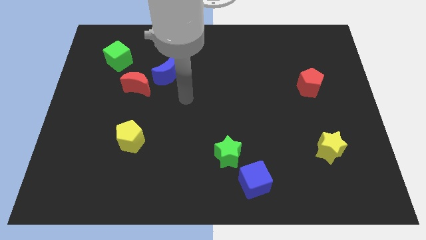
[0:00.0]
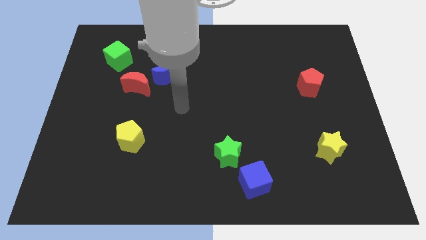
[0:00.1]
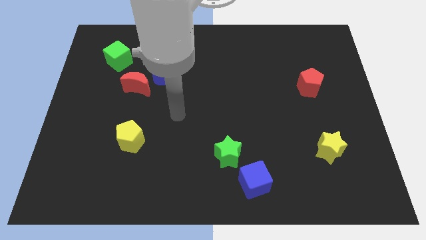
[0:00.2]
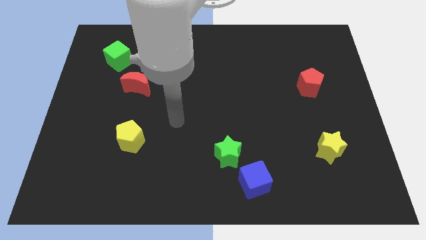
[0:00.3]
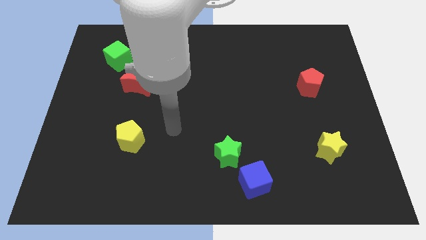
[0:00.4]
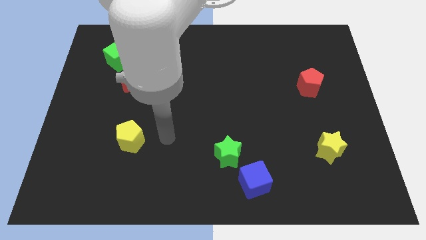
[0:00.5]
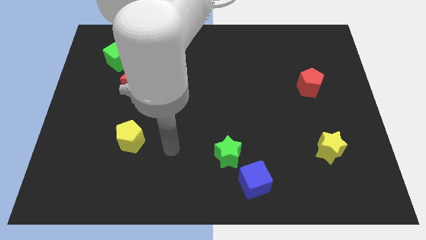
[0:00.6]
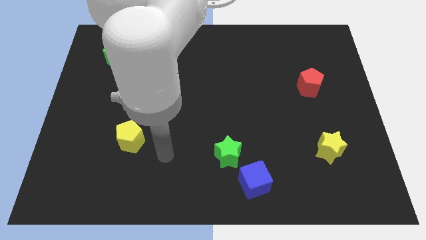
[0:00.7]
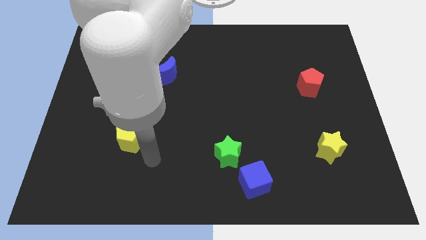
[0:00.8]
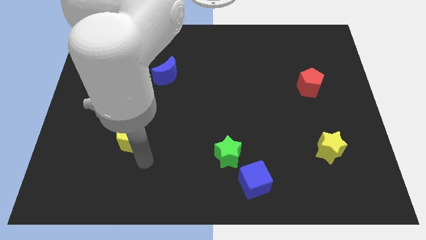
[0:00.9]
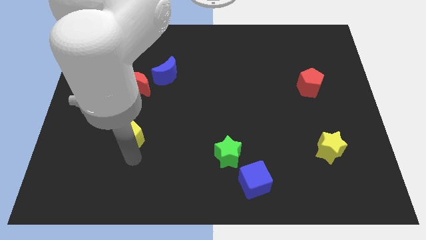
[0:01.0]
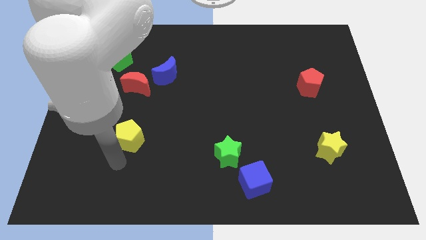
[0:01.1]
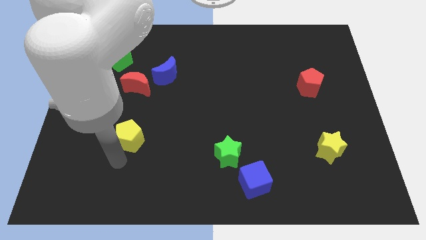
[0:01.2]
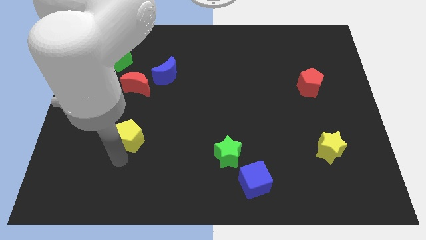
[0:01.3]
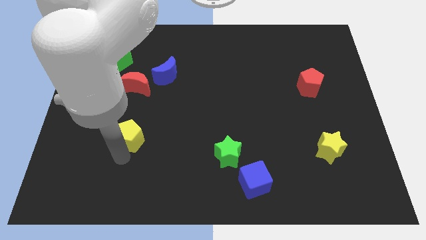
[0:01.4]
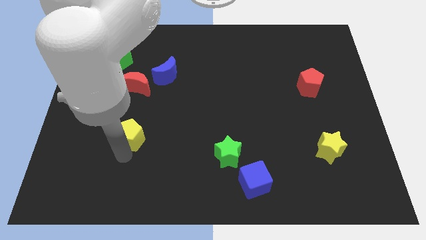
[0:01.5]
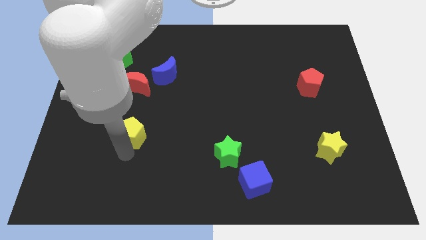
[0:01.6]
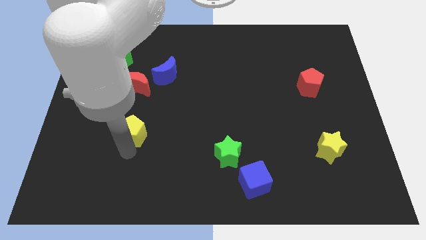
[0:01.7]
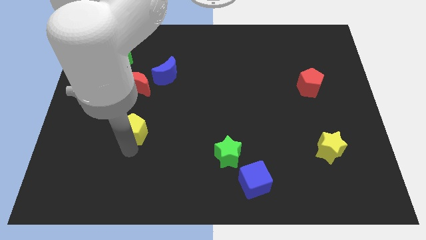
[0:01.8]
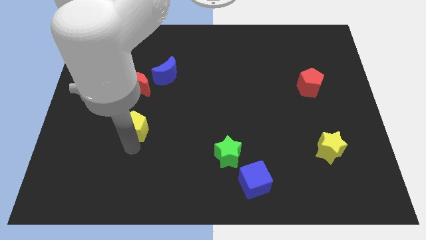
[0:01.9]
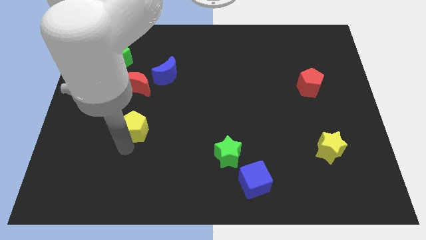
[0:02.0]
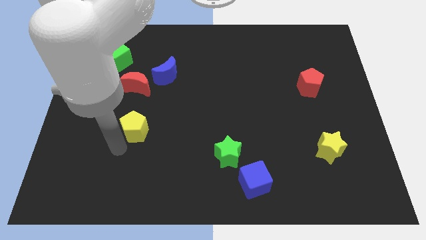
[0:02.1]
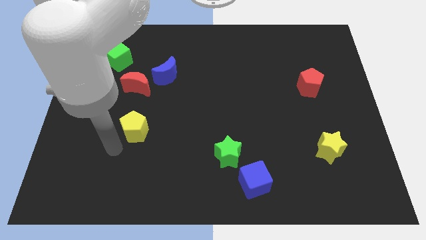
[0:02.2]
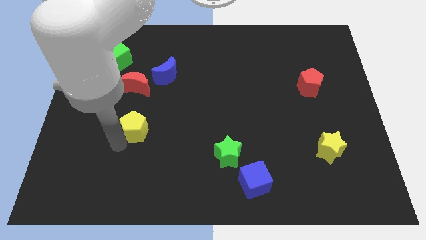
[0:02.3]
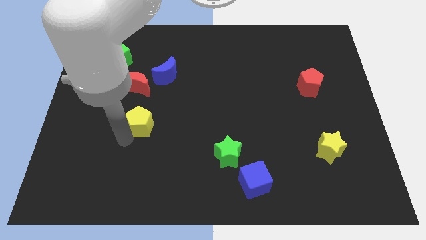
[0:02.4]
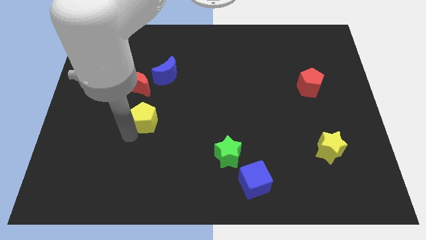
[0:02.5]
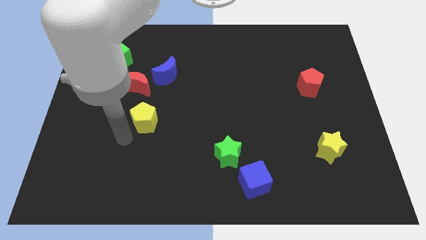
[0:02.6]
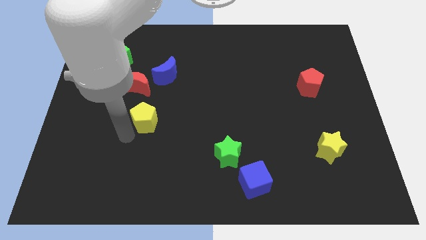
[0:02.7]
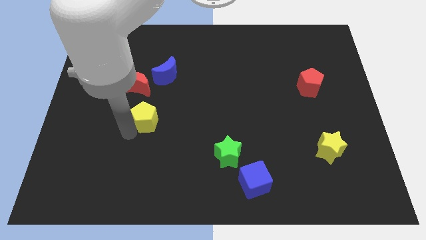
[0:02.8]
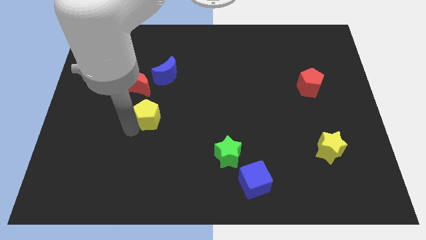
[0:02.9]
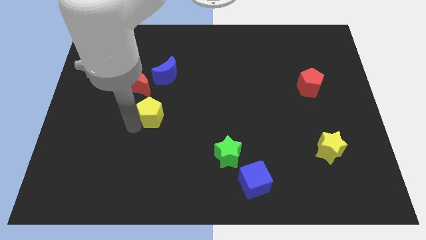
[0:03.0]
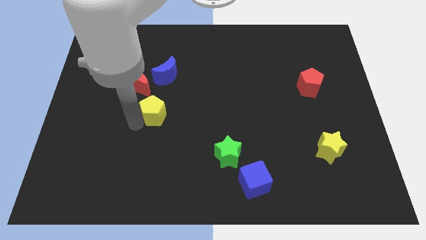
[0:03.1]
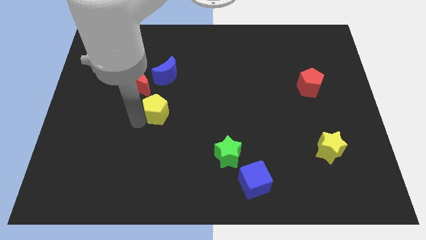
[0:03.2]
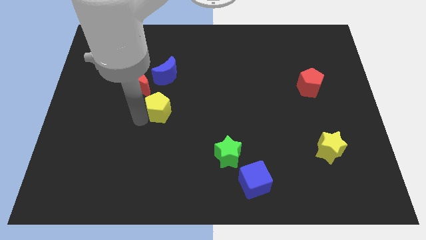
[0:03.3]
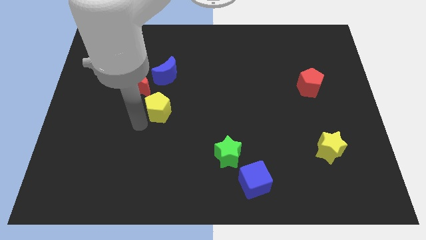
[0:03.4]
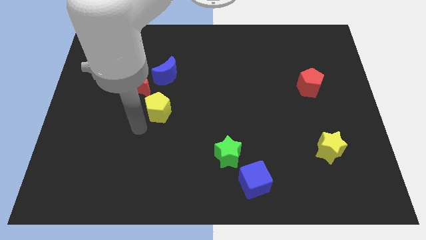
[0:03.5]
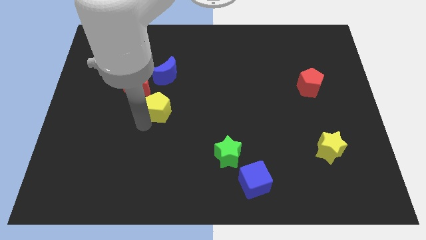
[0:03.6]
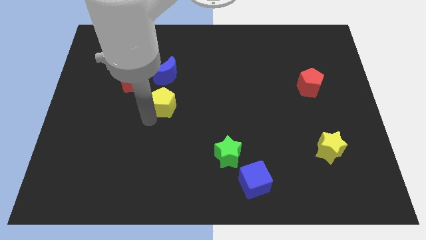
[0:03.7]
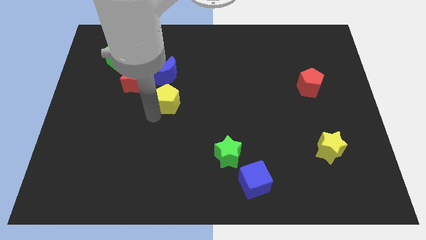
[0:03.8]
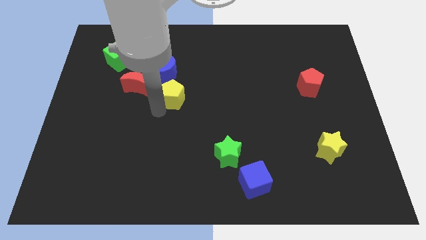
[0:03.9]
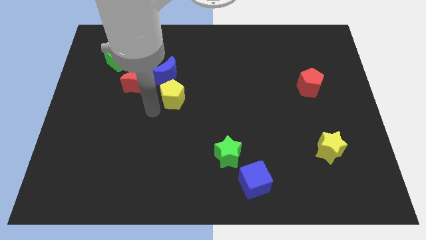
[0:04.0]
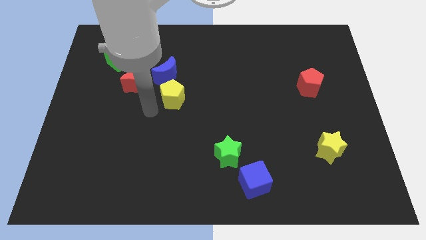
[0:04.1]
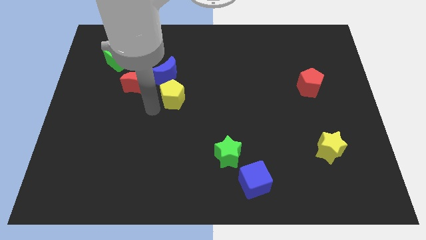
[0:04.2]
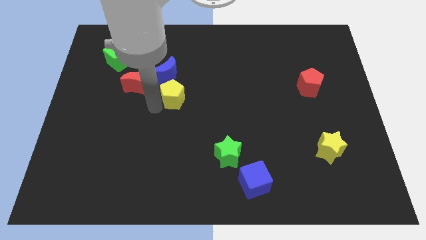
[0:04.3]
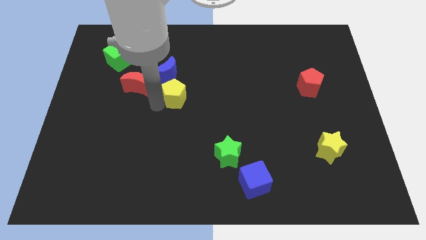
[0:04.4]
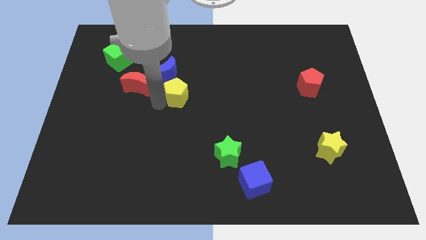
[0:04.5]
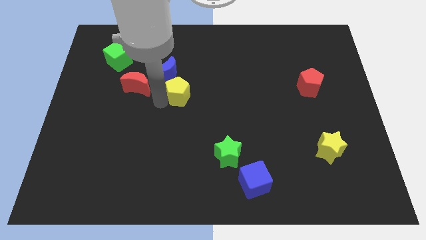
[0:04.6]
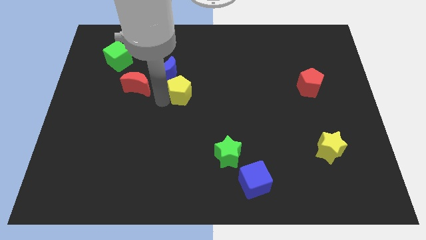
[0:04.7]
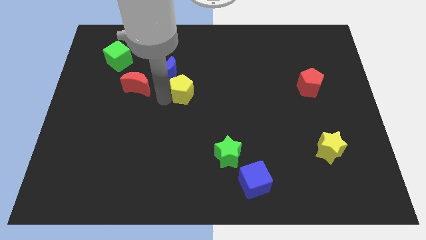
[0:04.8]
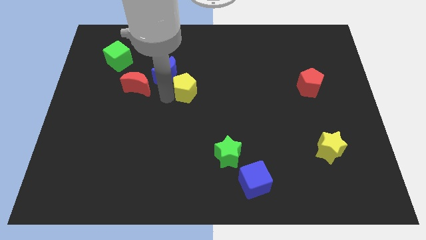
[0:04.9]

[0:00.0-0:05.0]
move the yellow pentagon to the right of the blue moon

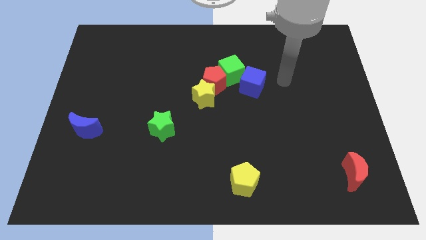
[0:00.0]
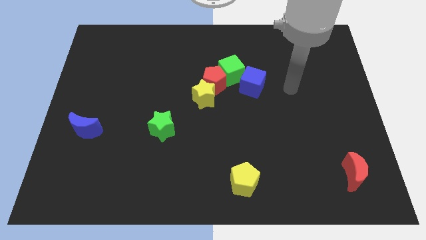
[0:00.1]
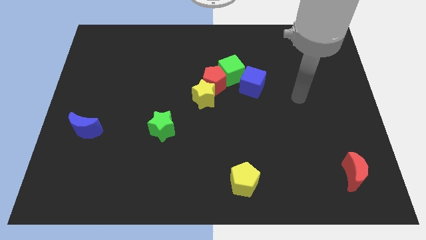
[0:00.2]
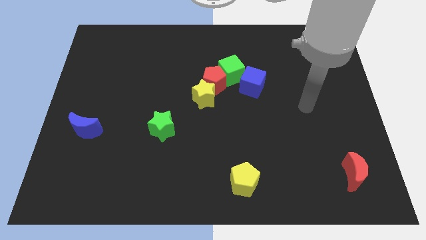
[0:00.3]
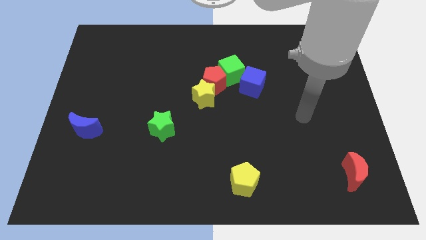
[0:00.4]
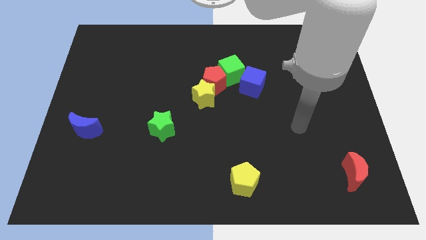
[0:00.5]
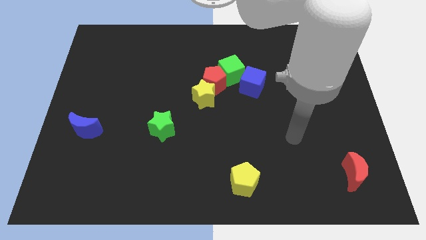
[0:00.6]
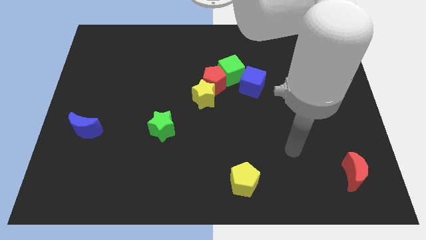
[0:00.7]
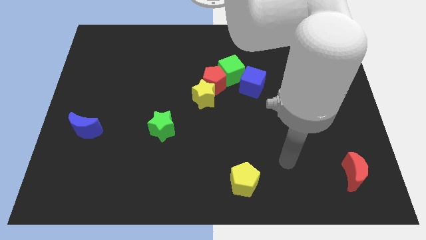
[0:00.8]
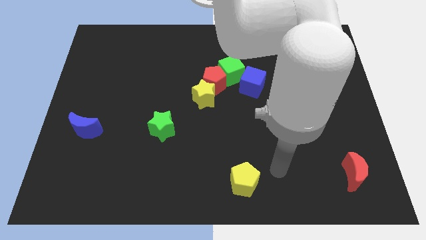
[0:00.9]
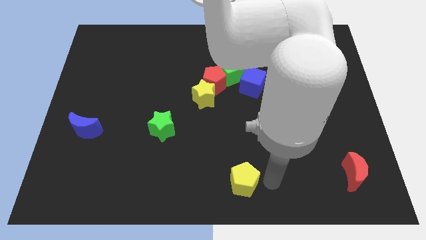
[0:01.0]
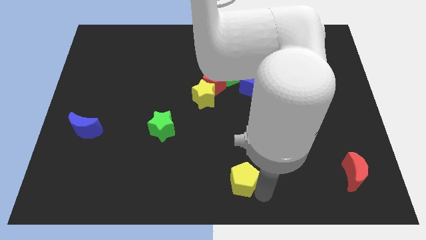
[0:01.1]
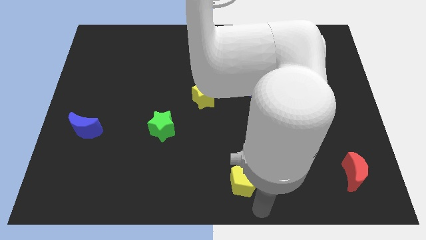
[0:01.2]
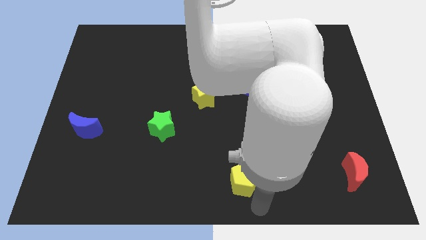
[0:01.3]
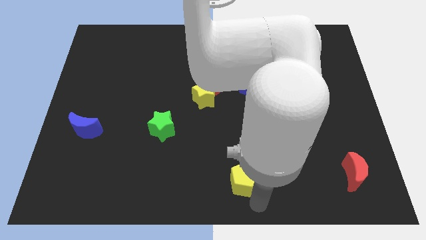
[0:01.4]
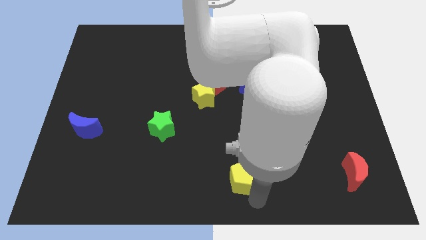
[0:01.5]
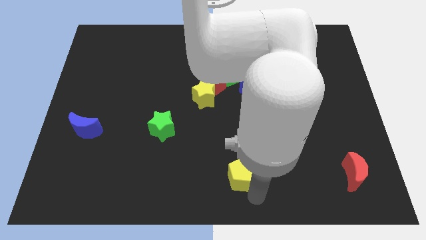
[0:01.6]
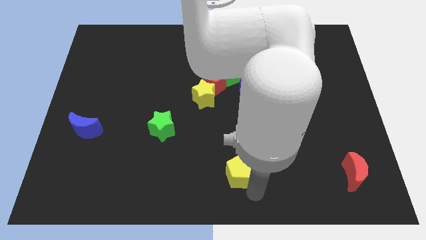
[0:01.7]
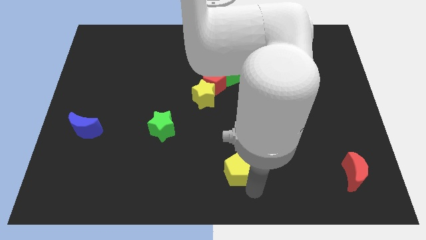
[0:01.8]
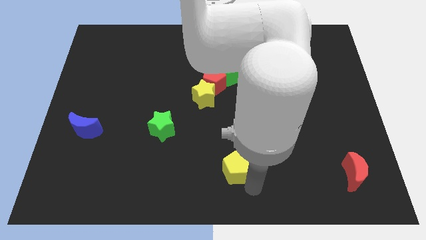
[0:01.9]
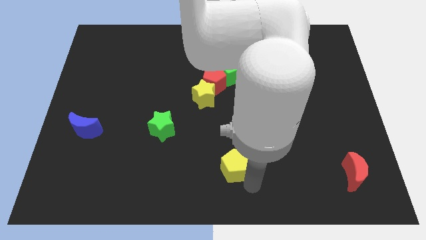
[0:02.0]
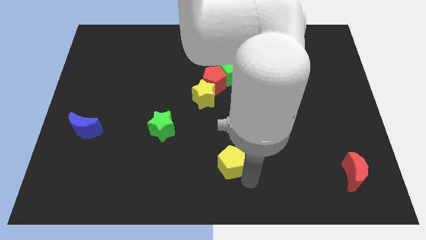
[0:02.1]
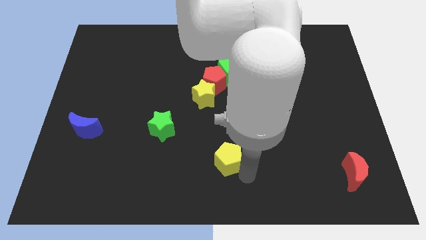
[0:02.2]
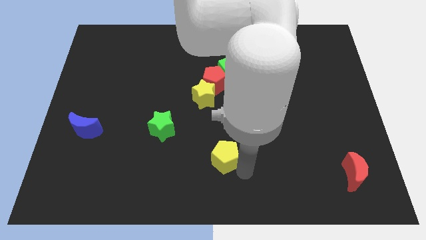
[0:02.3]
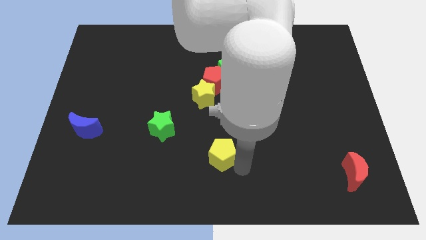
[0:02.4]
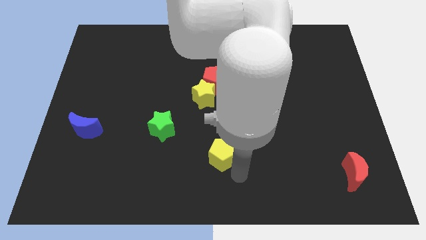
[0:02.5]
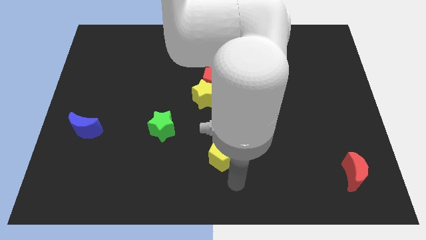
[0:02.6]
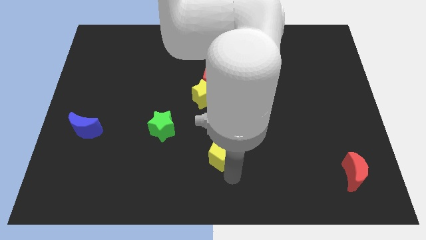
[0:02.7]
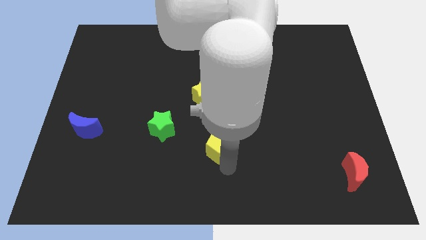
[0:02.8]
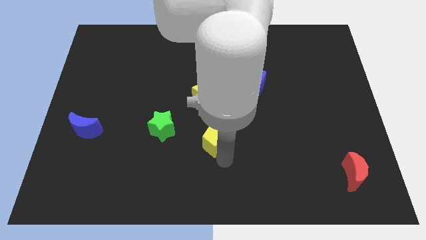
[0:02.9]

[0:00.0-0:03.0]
push the yellow pentagon to the right of the green star

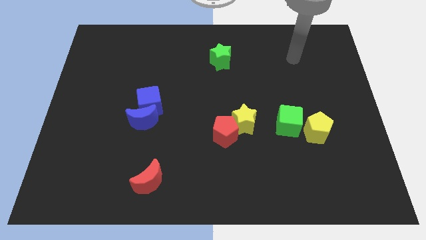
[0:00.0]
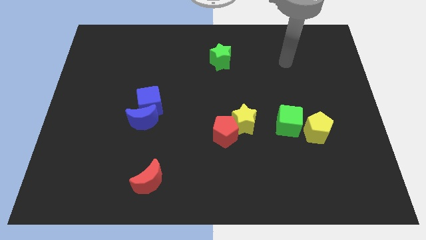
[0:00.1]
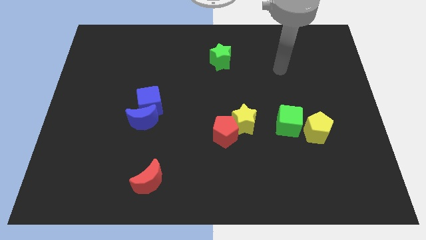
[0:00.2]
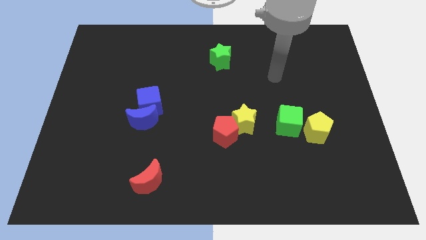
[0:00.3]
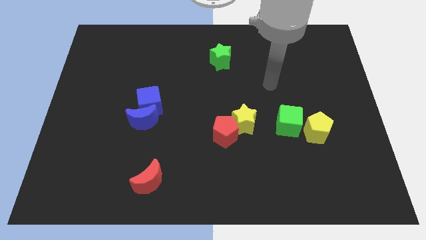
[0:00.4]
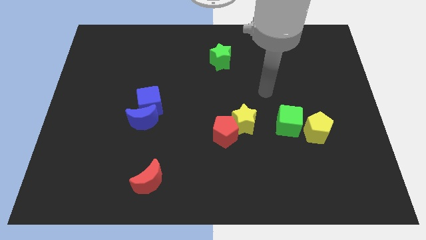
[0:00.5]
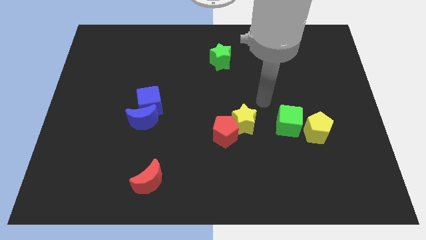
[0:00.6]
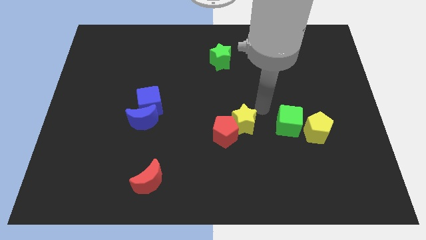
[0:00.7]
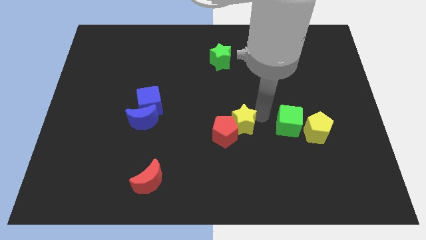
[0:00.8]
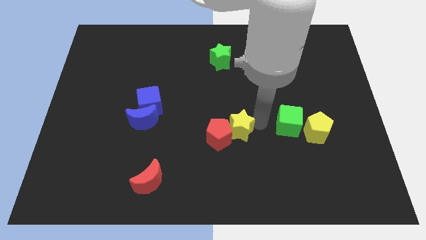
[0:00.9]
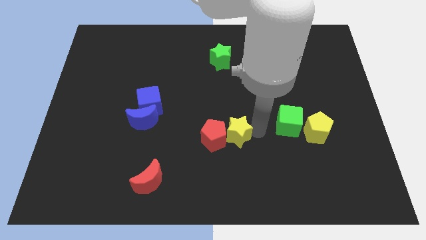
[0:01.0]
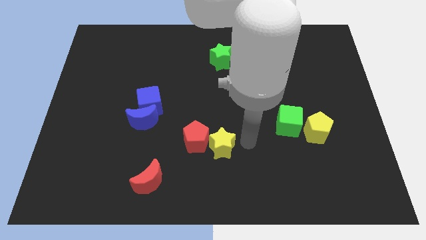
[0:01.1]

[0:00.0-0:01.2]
slide the red pentagon to the right of the blue moon
